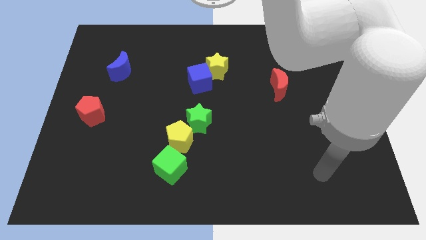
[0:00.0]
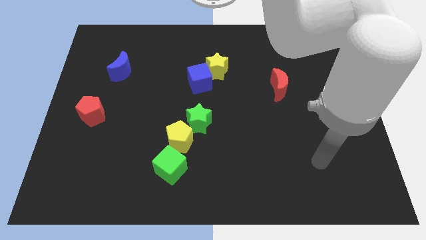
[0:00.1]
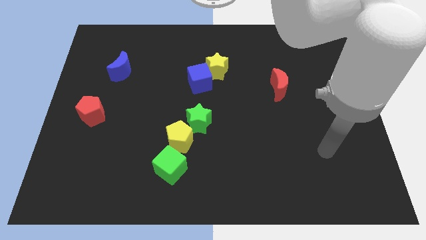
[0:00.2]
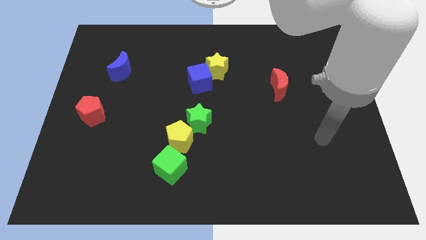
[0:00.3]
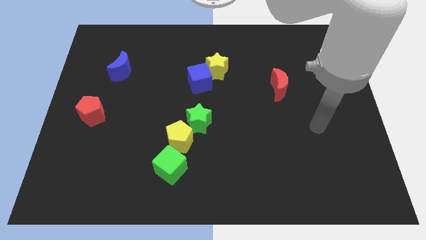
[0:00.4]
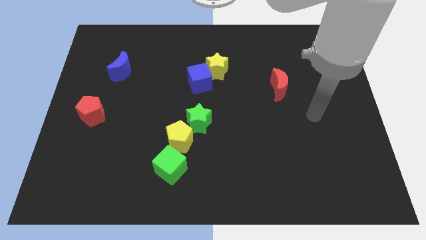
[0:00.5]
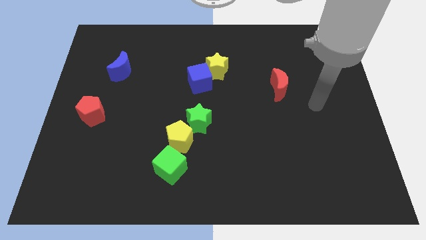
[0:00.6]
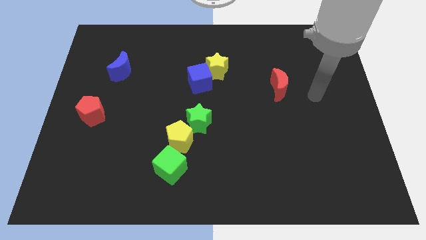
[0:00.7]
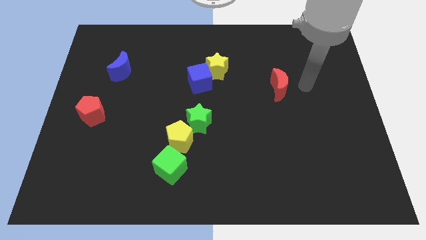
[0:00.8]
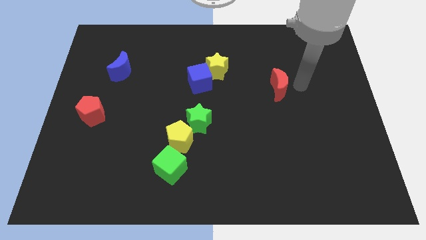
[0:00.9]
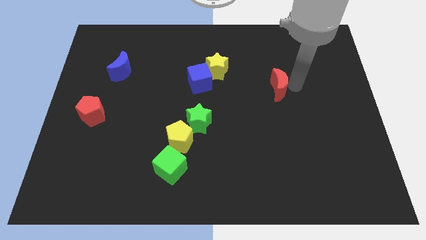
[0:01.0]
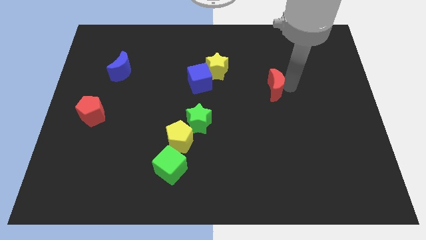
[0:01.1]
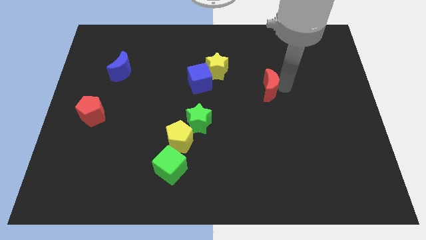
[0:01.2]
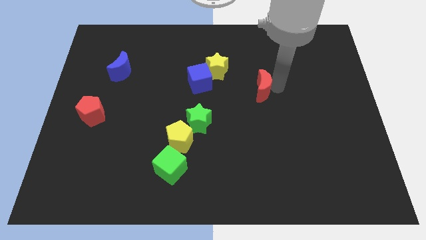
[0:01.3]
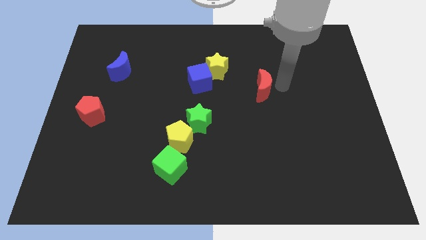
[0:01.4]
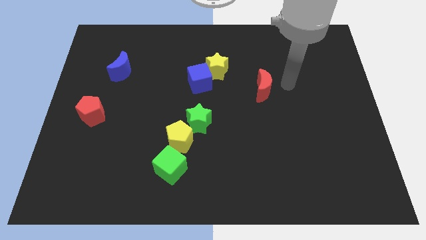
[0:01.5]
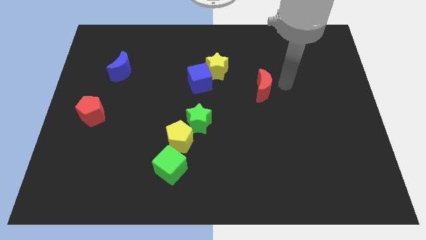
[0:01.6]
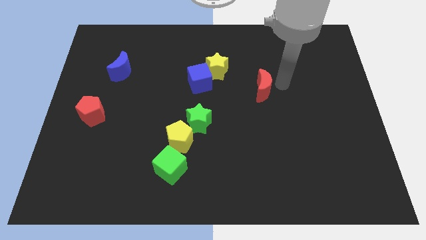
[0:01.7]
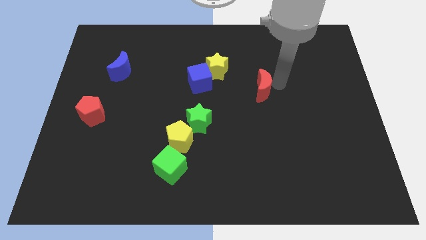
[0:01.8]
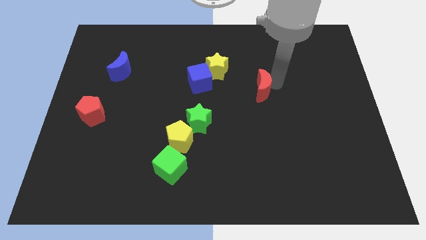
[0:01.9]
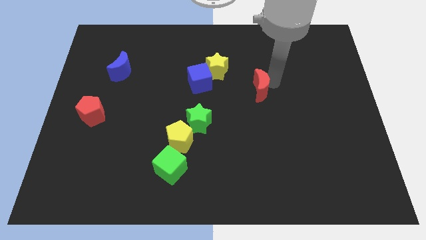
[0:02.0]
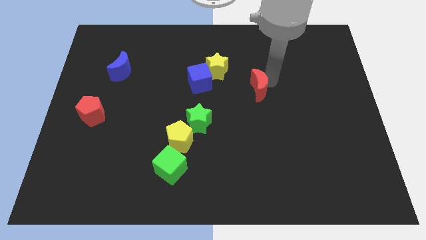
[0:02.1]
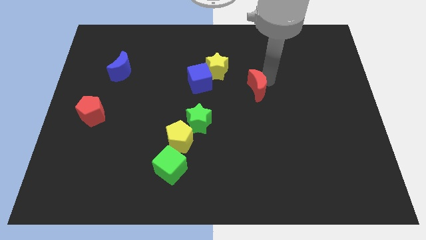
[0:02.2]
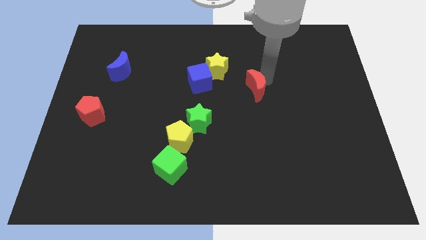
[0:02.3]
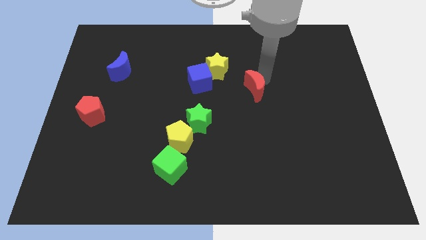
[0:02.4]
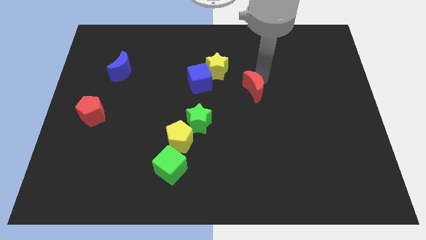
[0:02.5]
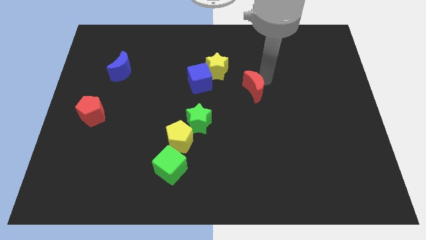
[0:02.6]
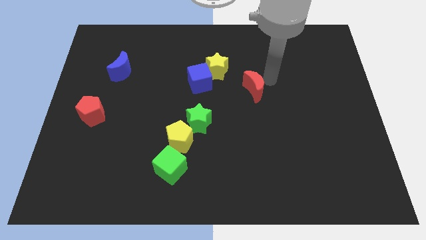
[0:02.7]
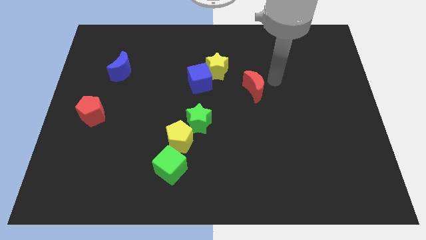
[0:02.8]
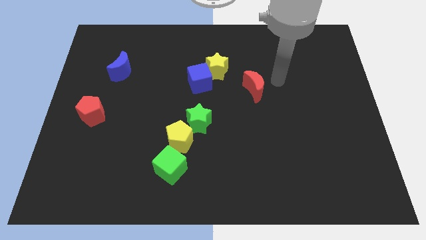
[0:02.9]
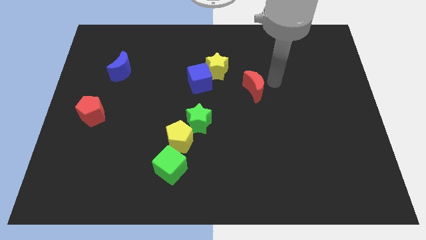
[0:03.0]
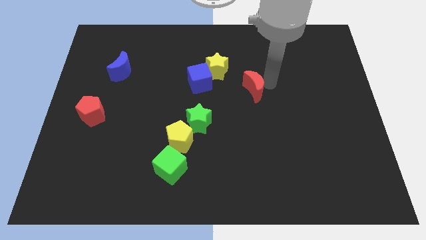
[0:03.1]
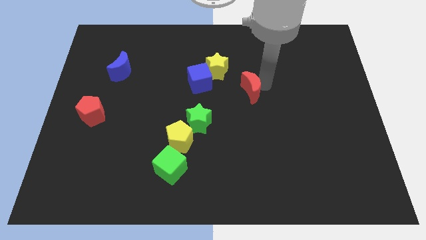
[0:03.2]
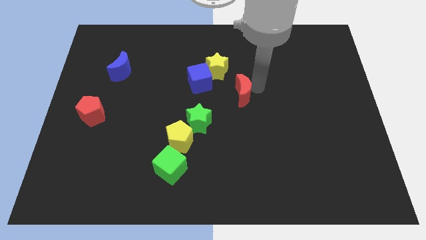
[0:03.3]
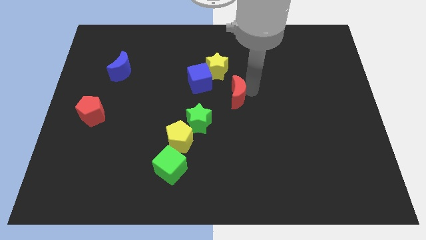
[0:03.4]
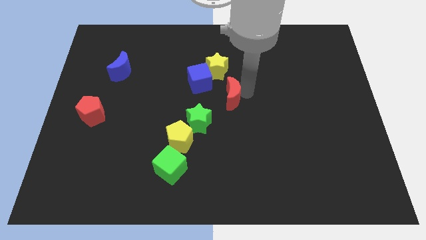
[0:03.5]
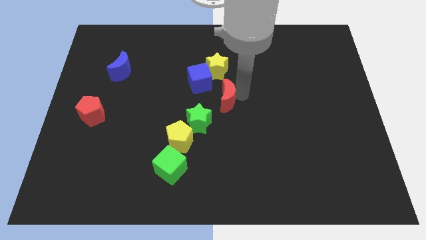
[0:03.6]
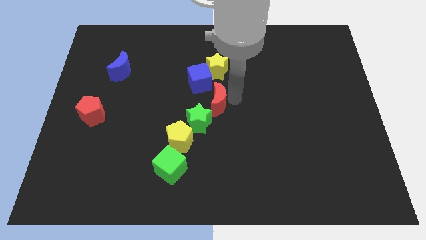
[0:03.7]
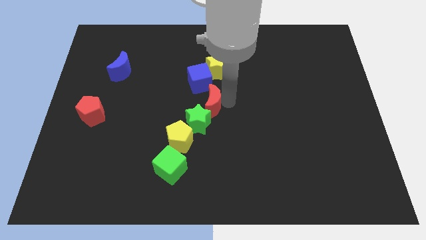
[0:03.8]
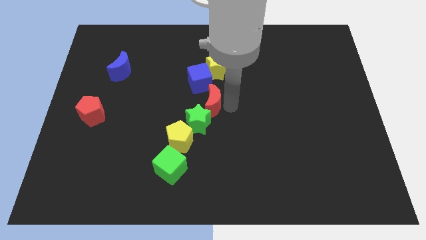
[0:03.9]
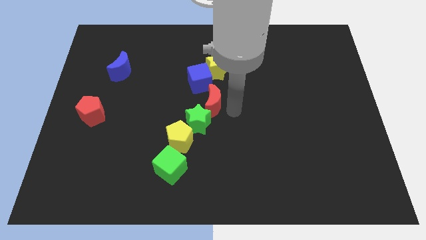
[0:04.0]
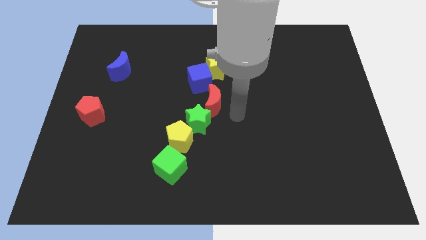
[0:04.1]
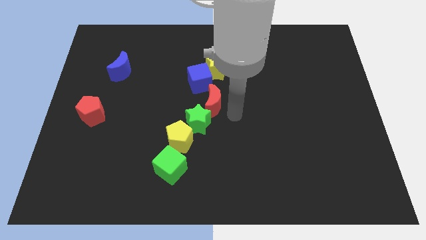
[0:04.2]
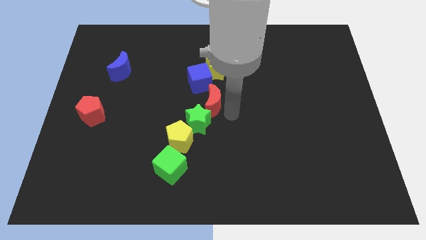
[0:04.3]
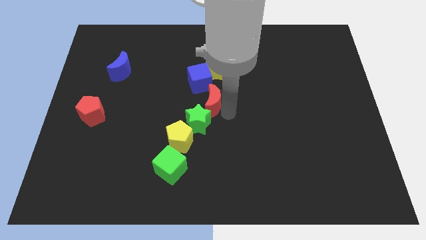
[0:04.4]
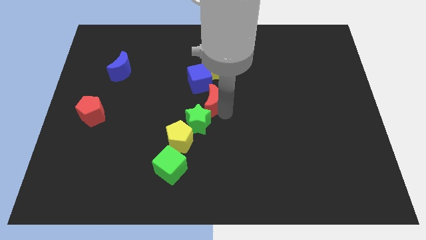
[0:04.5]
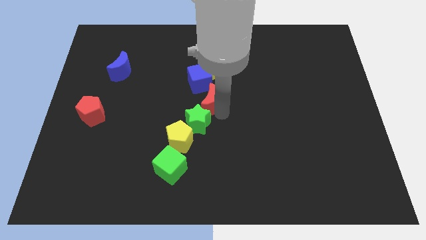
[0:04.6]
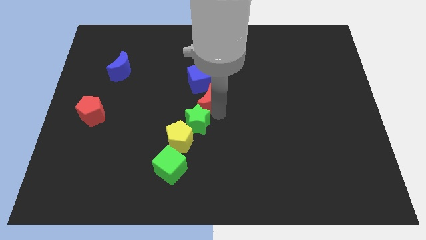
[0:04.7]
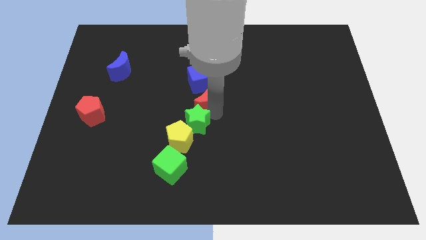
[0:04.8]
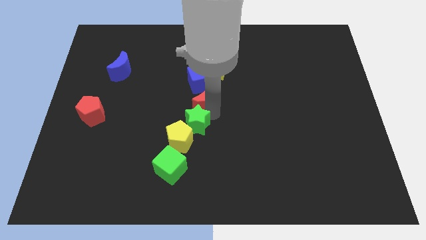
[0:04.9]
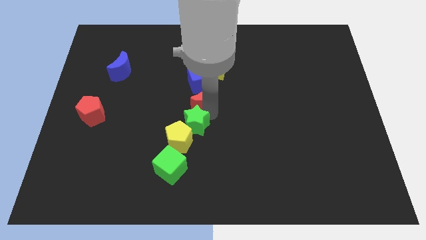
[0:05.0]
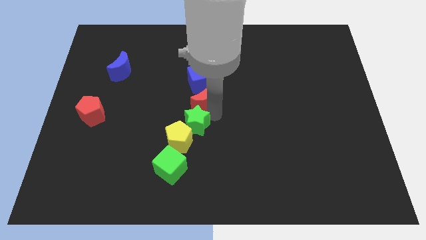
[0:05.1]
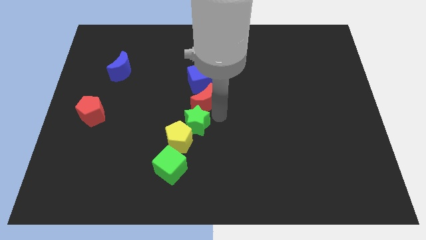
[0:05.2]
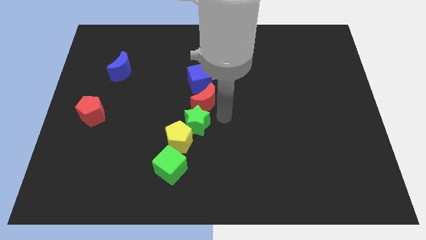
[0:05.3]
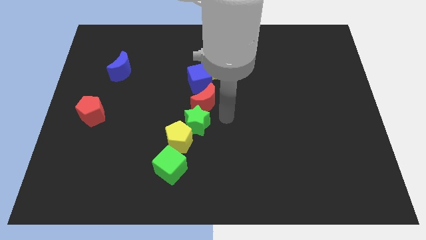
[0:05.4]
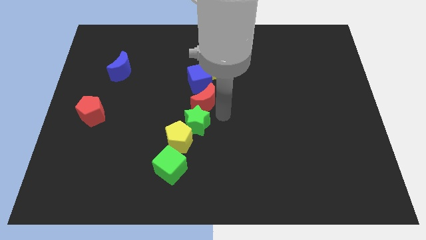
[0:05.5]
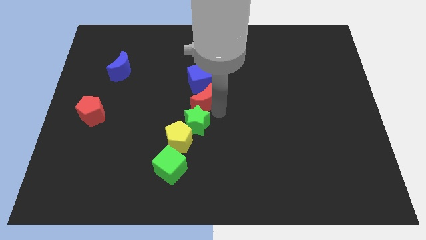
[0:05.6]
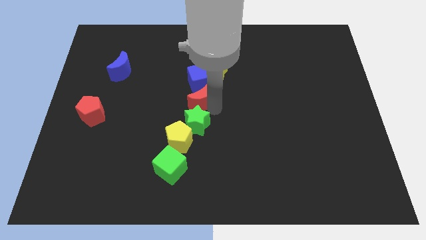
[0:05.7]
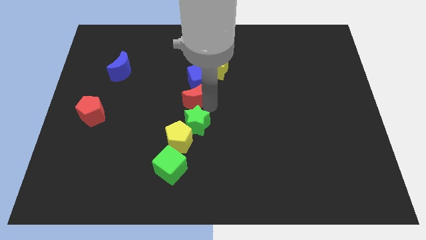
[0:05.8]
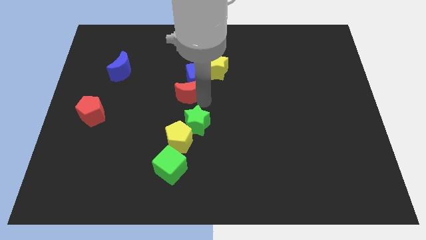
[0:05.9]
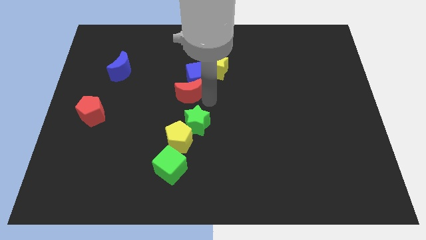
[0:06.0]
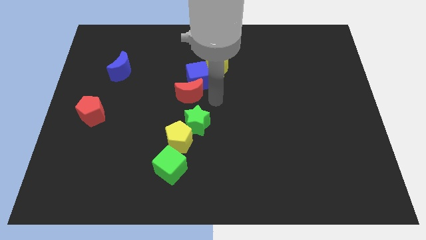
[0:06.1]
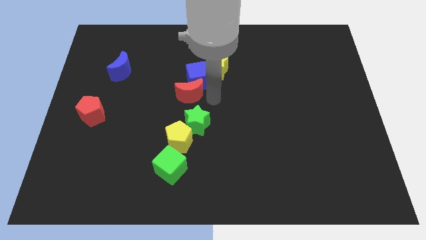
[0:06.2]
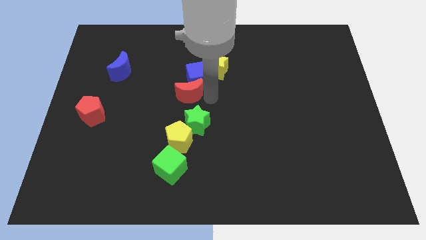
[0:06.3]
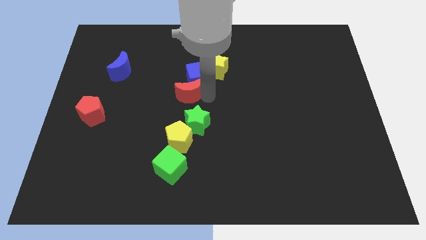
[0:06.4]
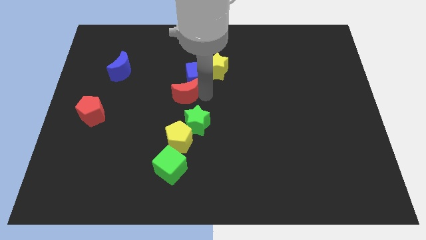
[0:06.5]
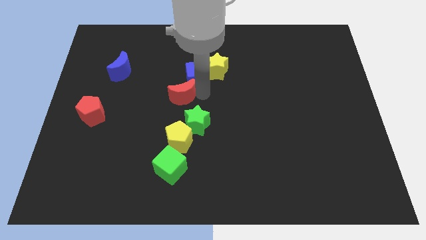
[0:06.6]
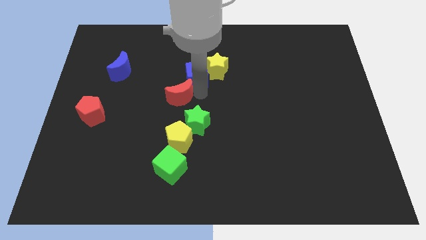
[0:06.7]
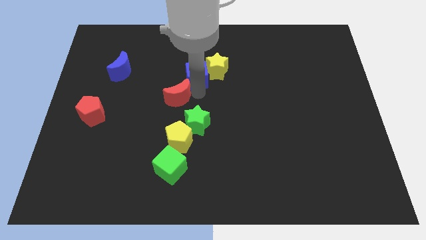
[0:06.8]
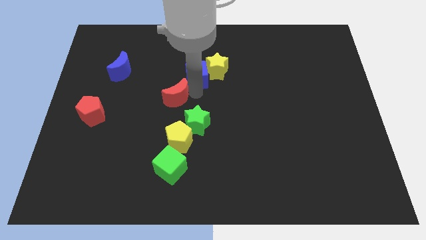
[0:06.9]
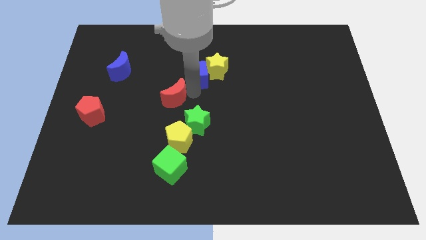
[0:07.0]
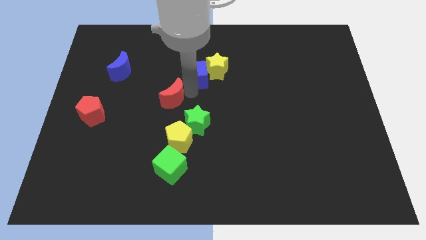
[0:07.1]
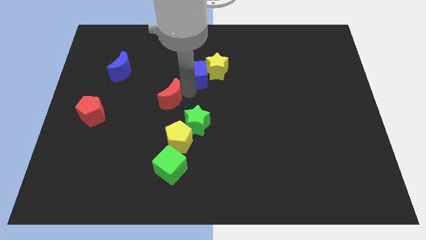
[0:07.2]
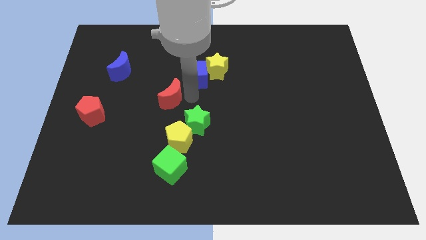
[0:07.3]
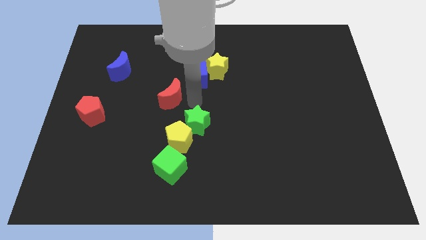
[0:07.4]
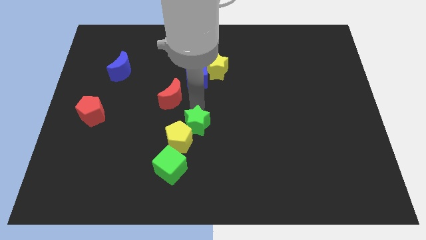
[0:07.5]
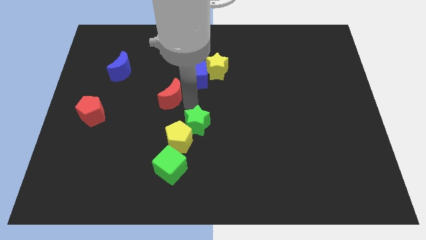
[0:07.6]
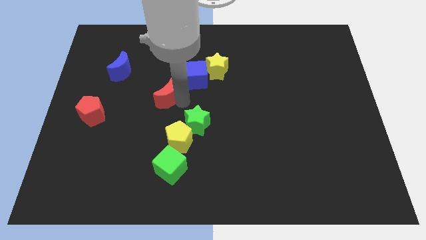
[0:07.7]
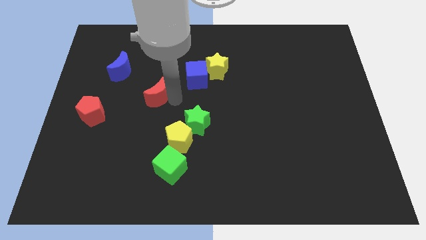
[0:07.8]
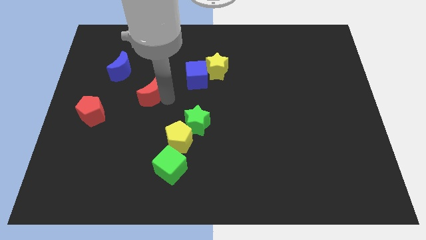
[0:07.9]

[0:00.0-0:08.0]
push the red moon diagonally down and to the right of the blue moon
